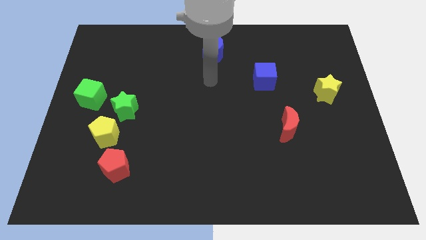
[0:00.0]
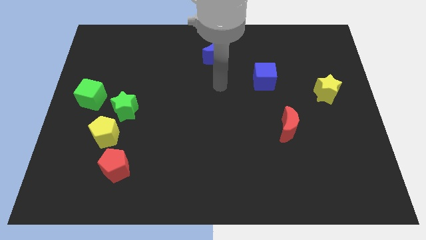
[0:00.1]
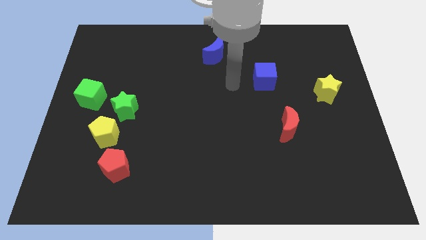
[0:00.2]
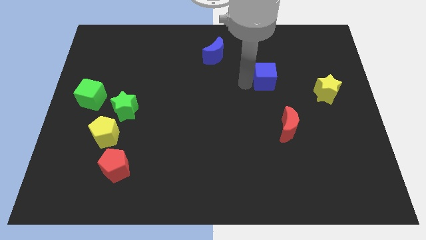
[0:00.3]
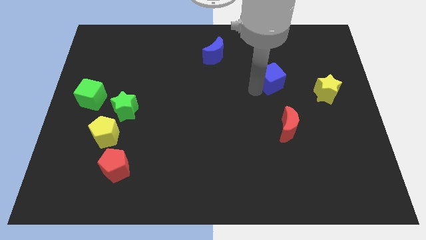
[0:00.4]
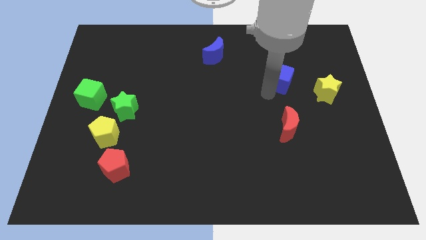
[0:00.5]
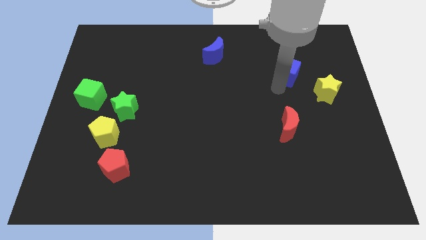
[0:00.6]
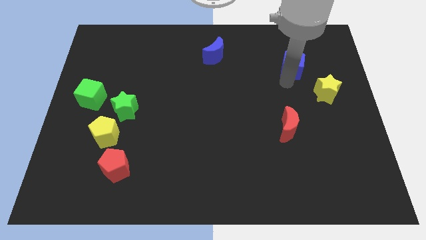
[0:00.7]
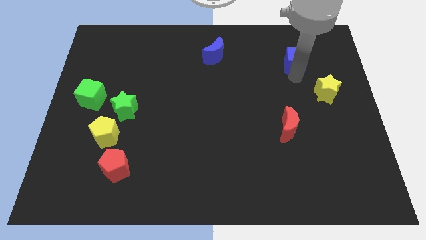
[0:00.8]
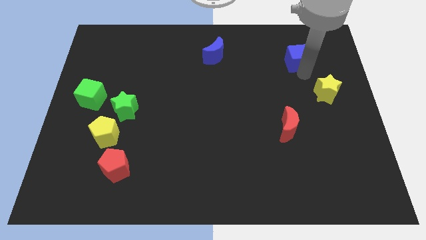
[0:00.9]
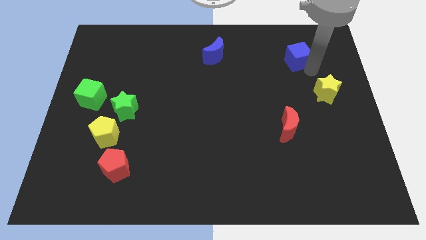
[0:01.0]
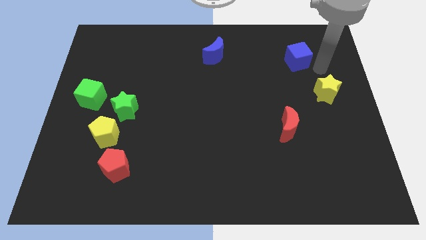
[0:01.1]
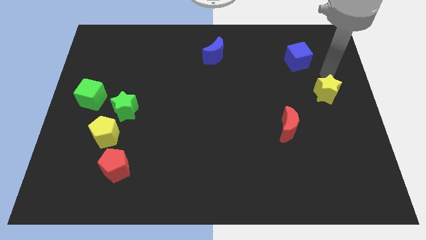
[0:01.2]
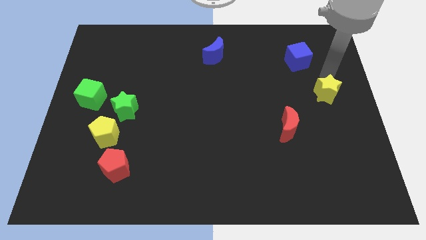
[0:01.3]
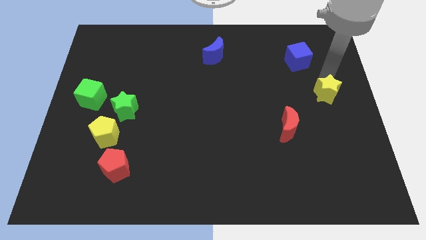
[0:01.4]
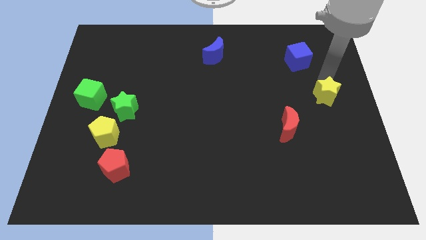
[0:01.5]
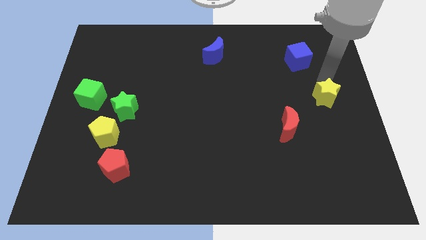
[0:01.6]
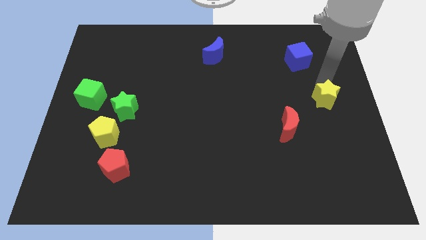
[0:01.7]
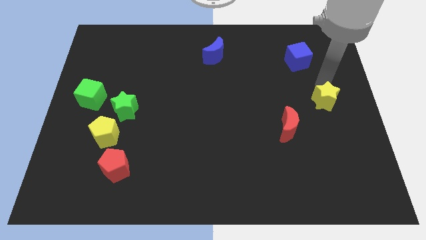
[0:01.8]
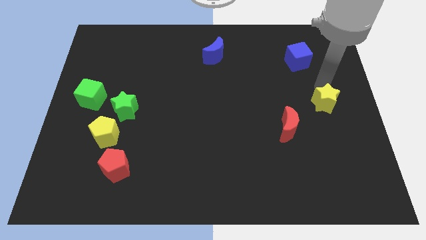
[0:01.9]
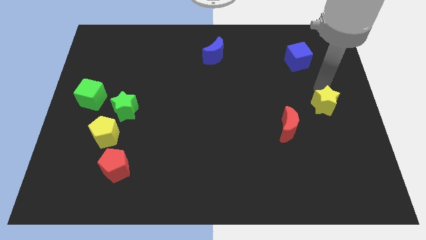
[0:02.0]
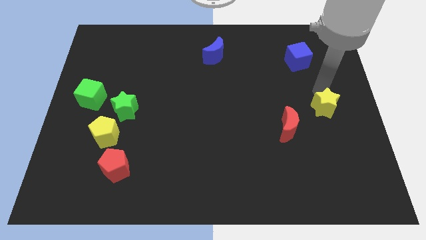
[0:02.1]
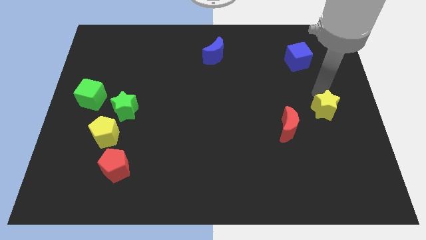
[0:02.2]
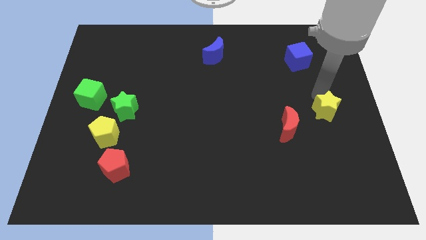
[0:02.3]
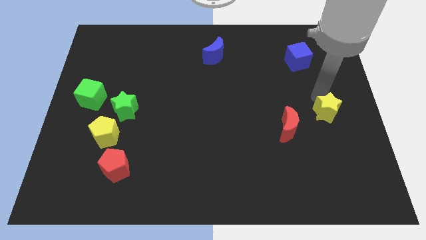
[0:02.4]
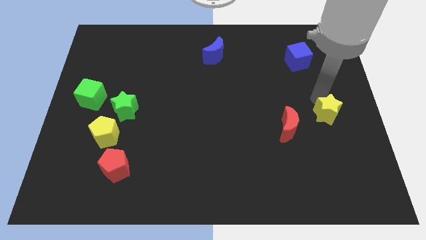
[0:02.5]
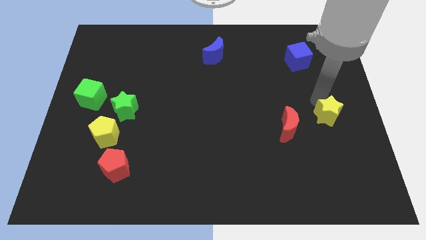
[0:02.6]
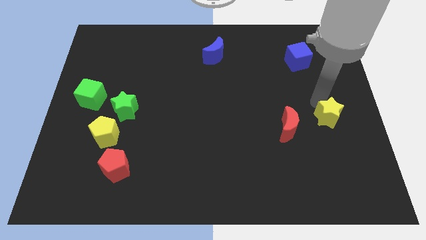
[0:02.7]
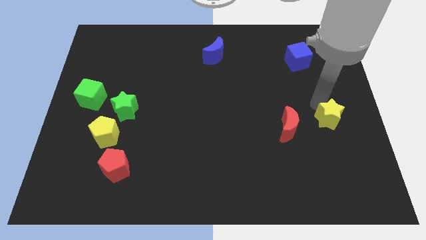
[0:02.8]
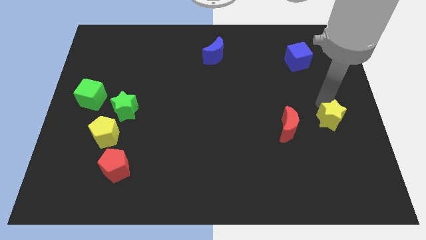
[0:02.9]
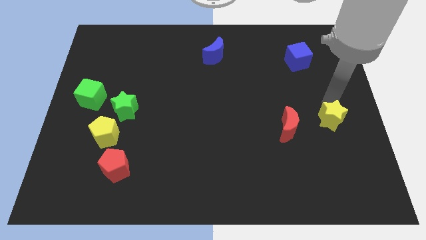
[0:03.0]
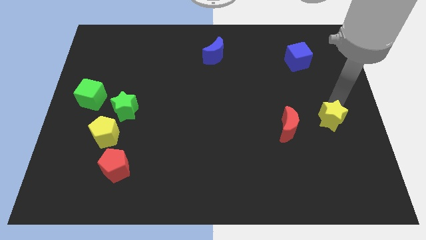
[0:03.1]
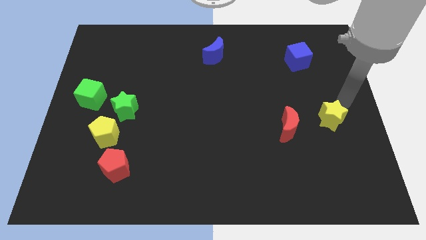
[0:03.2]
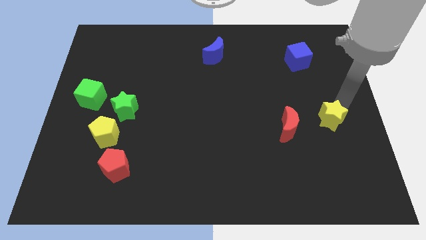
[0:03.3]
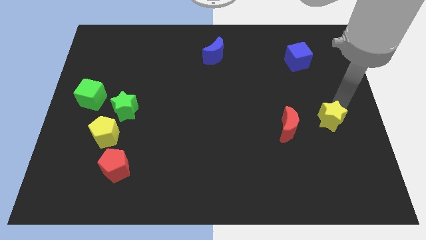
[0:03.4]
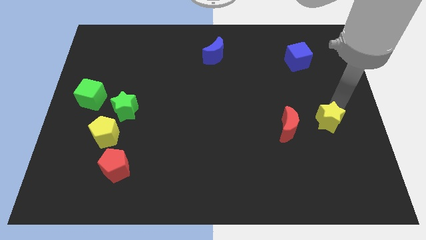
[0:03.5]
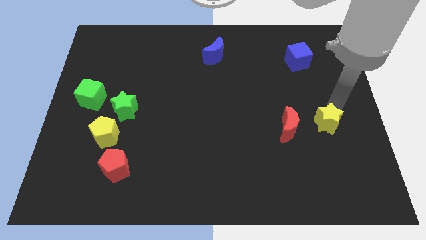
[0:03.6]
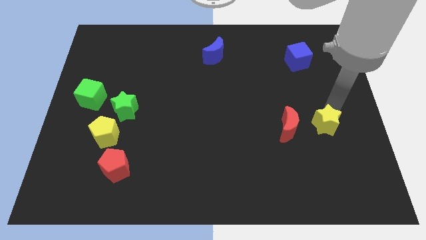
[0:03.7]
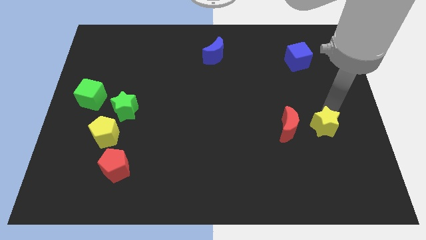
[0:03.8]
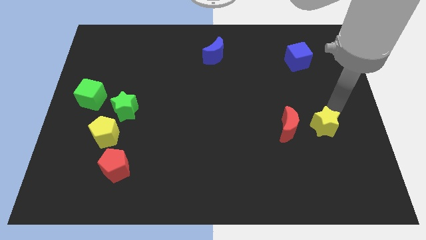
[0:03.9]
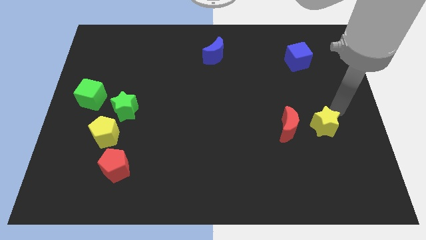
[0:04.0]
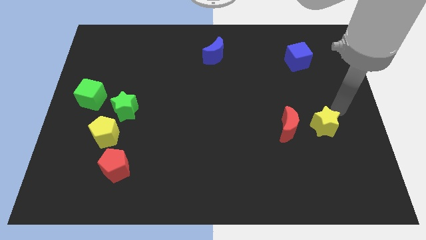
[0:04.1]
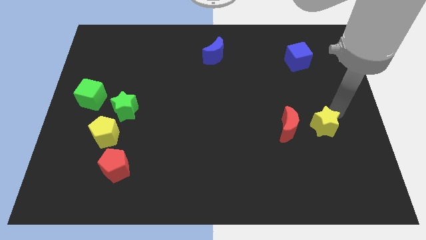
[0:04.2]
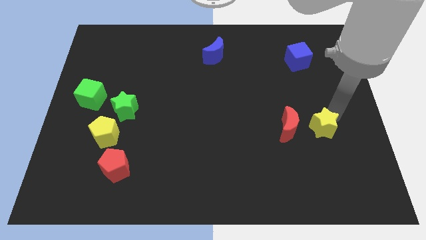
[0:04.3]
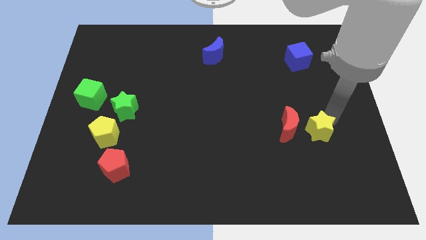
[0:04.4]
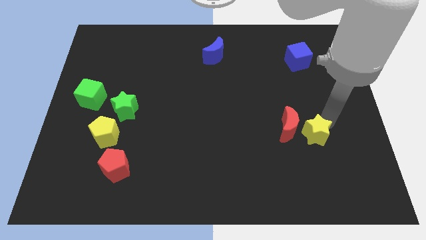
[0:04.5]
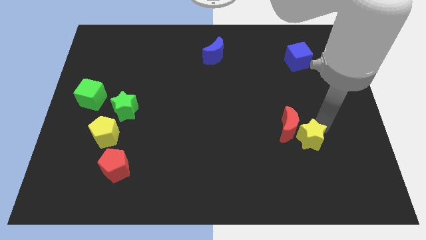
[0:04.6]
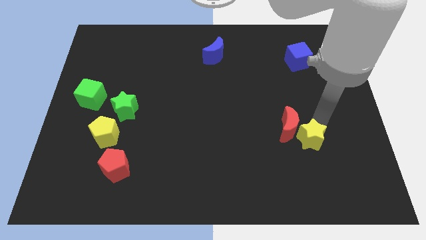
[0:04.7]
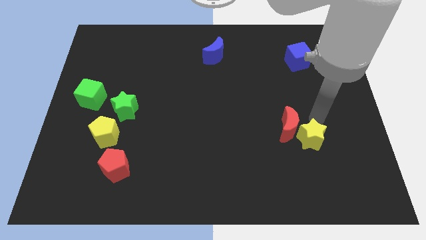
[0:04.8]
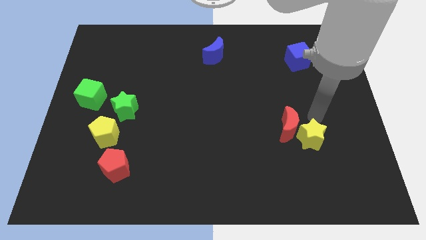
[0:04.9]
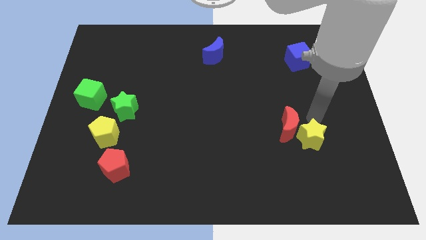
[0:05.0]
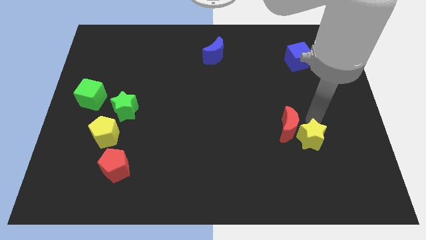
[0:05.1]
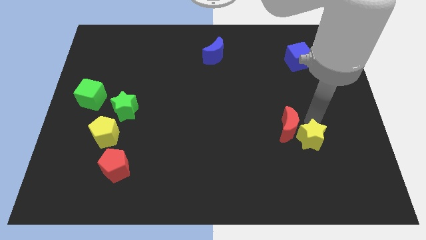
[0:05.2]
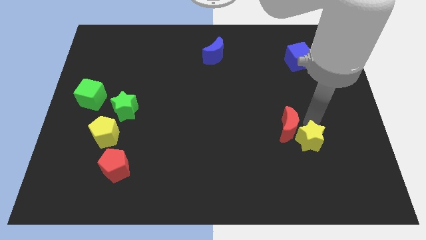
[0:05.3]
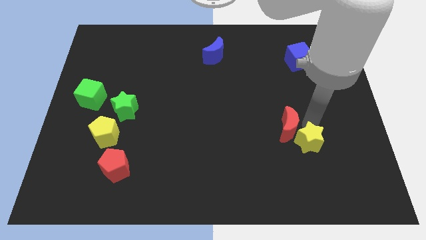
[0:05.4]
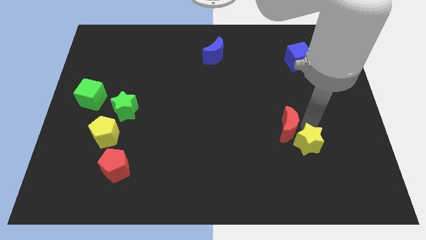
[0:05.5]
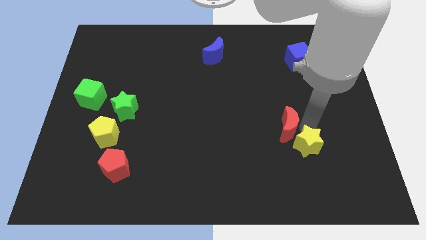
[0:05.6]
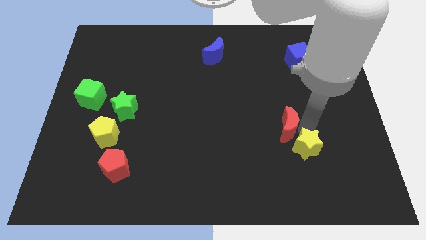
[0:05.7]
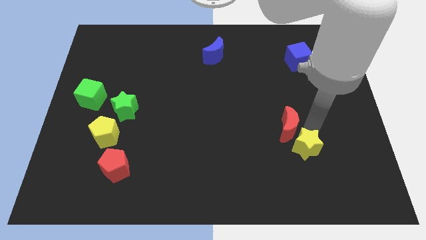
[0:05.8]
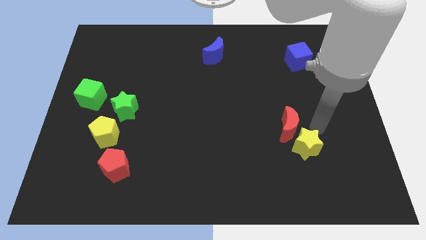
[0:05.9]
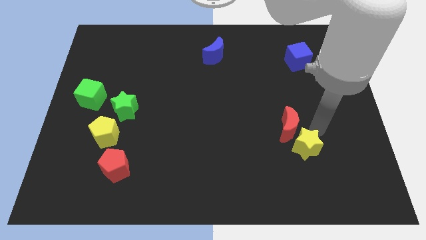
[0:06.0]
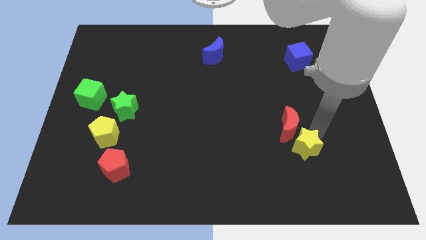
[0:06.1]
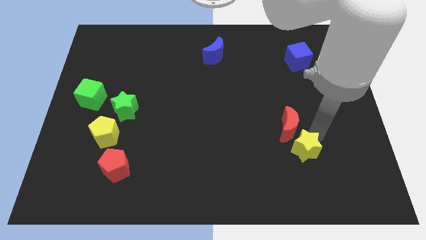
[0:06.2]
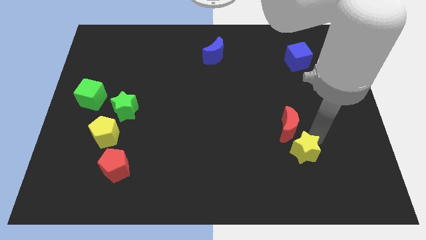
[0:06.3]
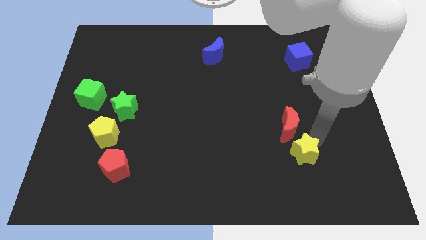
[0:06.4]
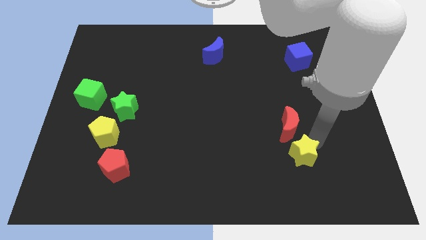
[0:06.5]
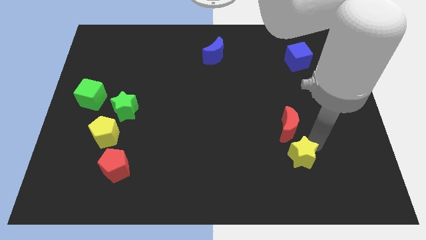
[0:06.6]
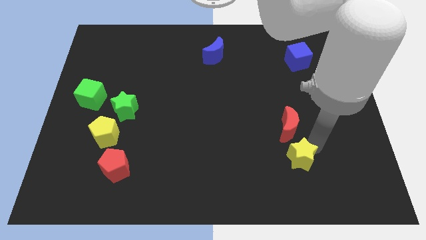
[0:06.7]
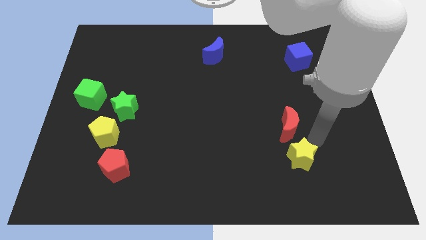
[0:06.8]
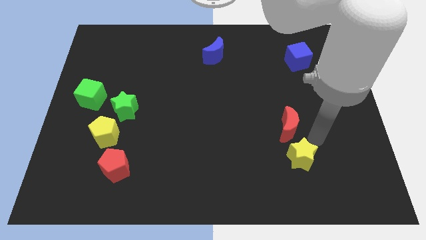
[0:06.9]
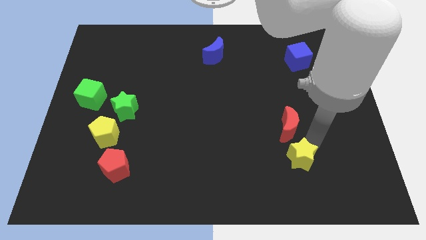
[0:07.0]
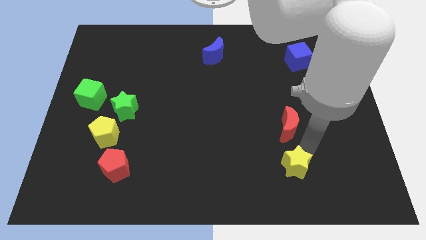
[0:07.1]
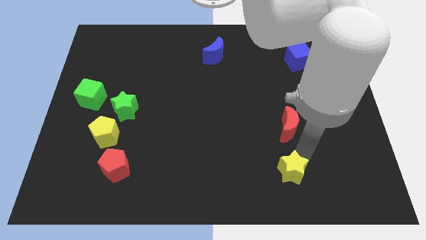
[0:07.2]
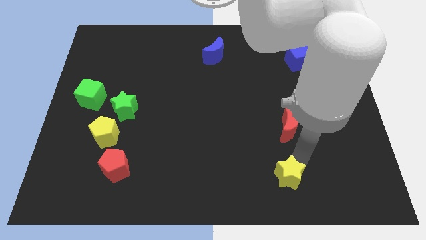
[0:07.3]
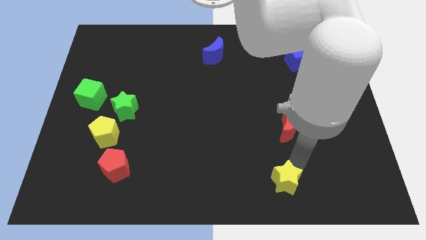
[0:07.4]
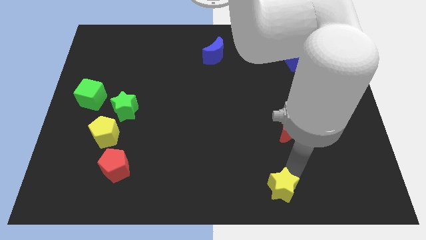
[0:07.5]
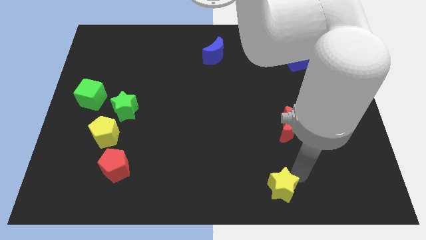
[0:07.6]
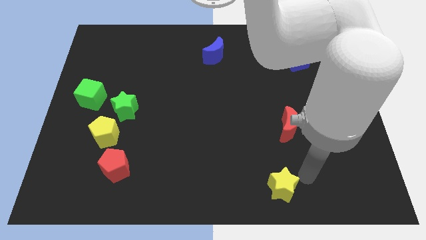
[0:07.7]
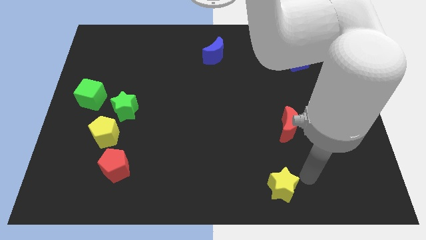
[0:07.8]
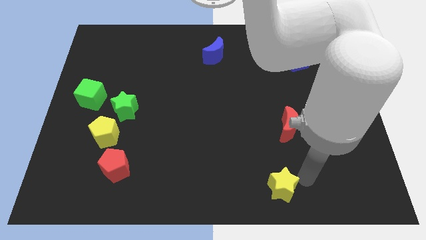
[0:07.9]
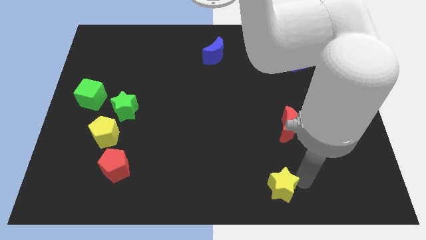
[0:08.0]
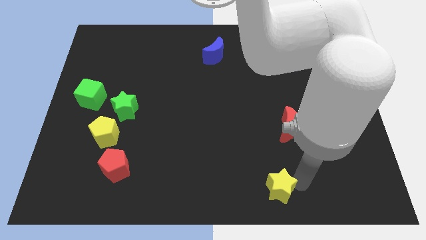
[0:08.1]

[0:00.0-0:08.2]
put the yellow star to the bottom side

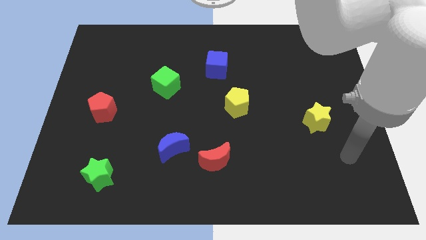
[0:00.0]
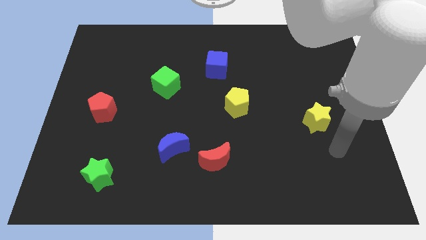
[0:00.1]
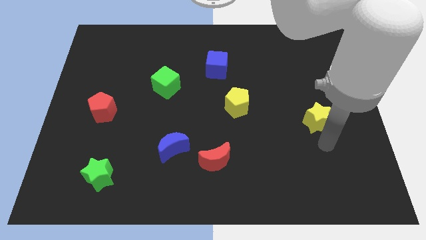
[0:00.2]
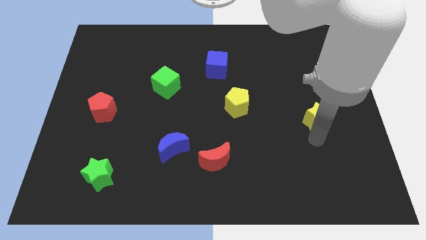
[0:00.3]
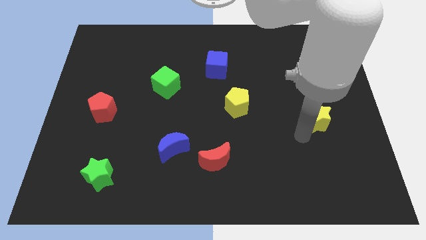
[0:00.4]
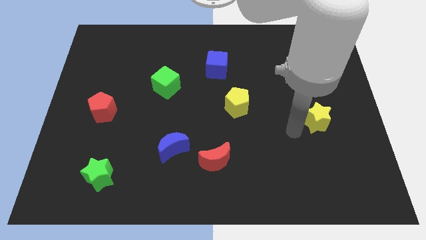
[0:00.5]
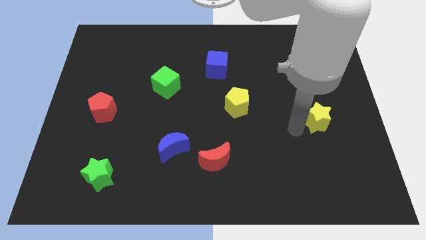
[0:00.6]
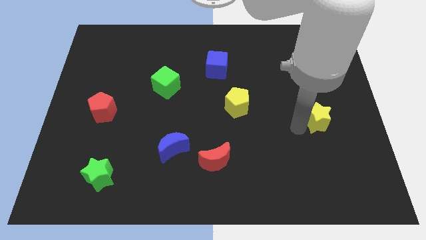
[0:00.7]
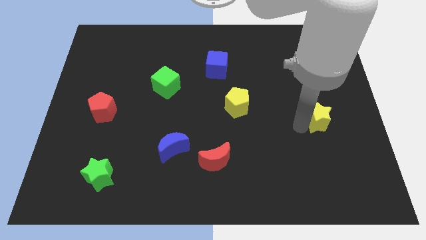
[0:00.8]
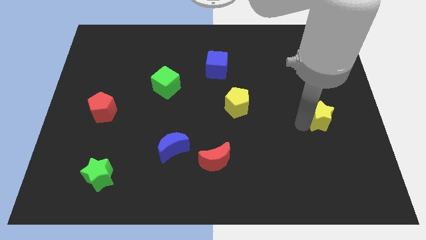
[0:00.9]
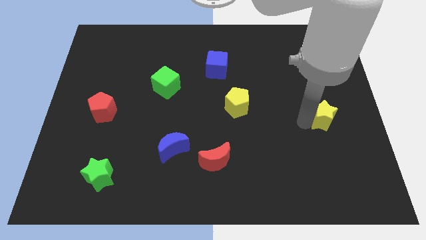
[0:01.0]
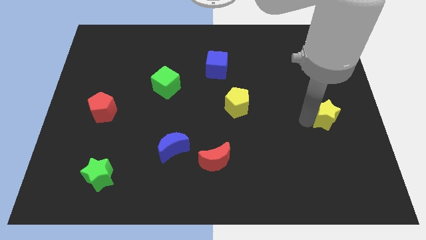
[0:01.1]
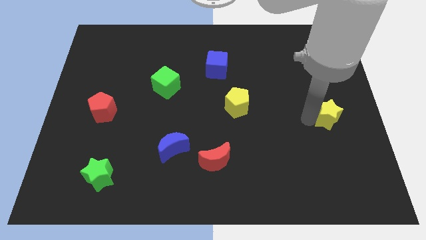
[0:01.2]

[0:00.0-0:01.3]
put the yellow star to the center right
